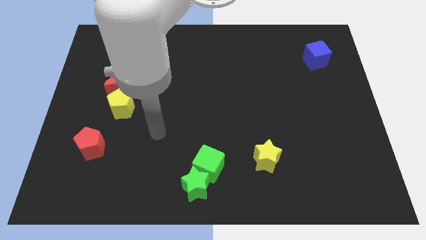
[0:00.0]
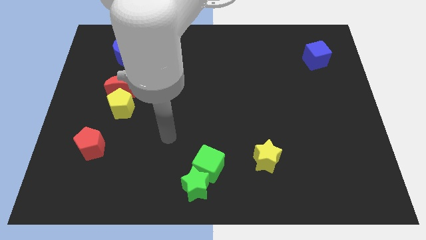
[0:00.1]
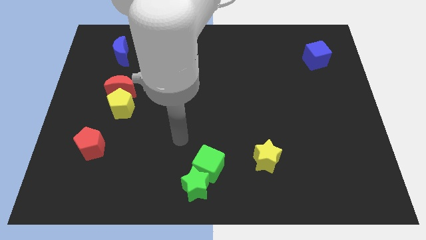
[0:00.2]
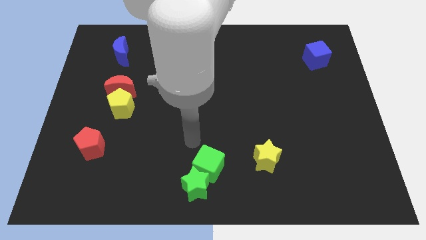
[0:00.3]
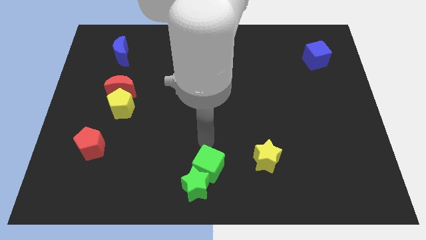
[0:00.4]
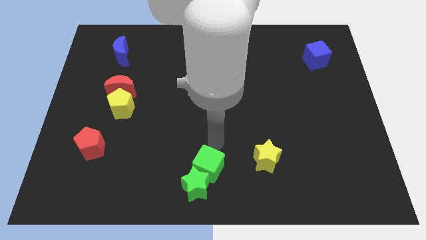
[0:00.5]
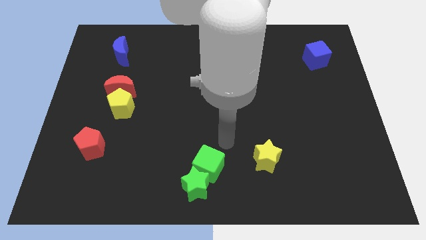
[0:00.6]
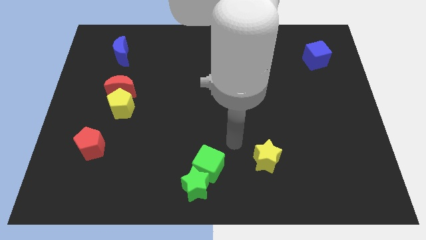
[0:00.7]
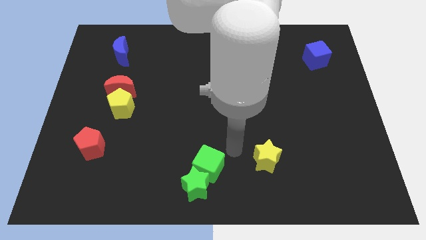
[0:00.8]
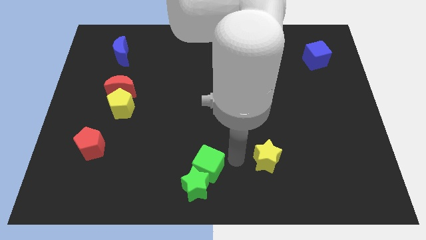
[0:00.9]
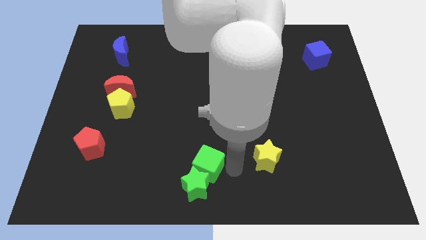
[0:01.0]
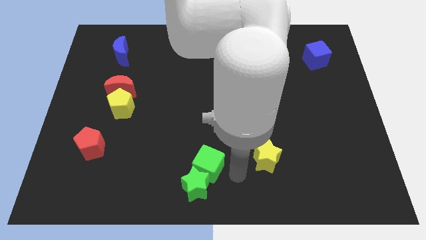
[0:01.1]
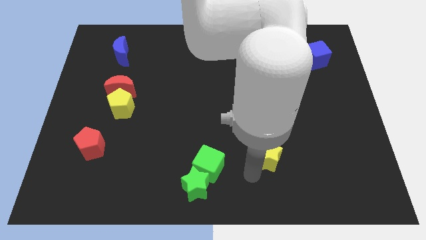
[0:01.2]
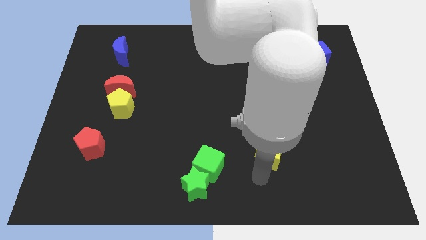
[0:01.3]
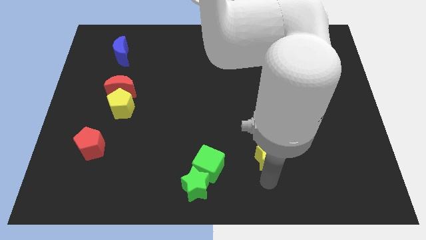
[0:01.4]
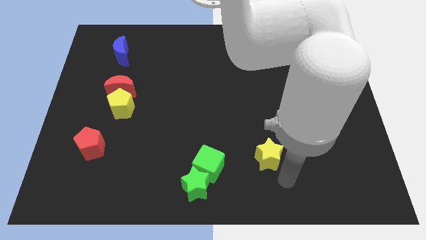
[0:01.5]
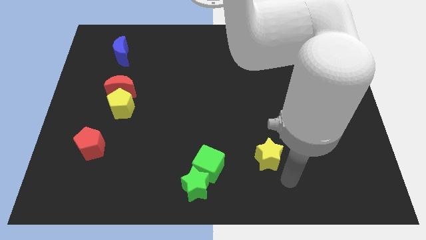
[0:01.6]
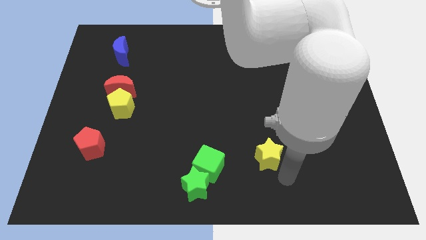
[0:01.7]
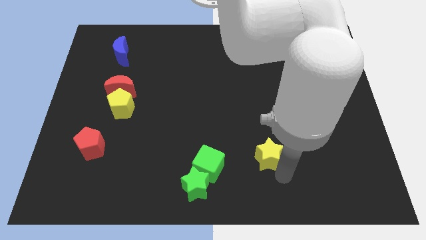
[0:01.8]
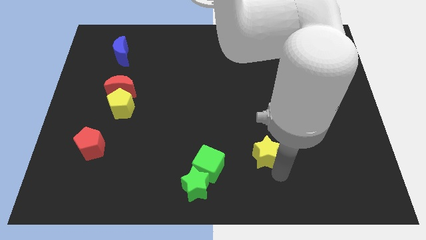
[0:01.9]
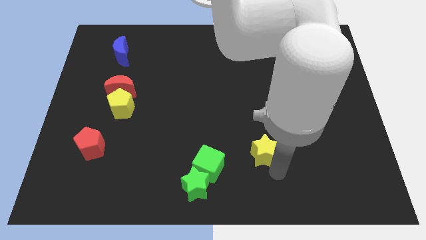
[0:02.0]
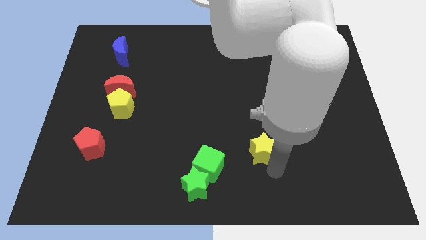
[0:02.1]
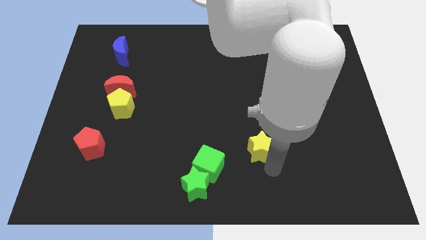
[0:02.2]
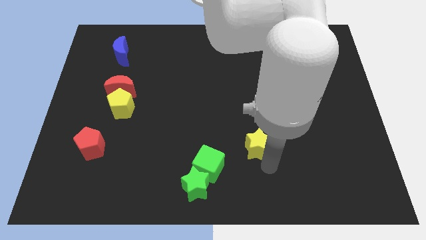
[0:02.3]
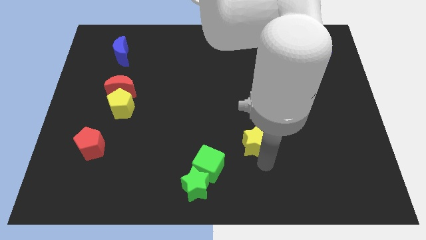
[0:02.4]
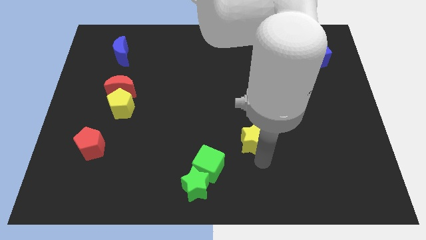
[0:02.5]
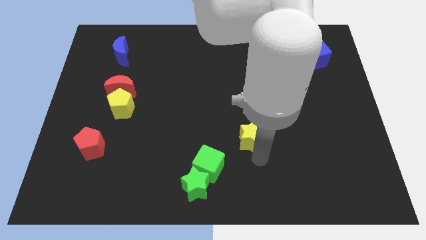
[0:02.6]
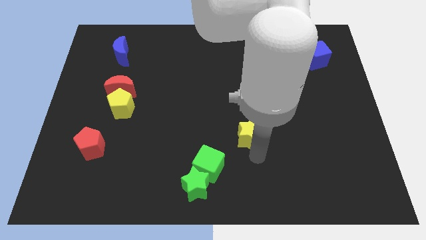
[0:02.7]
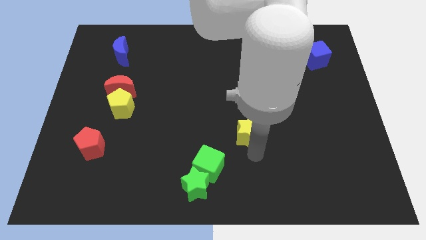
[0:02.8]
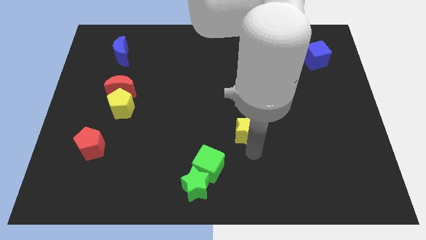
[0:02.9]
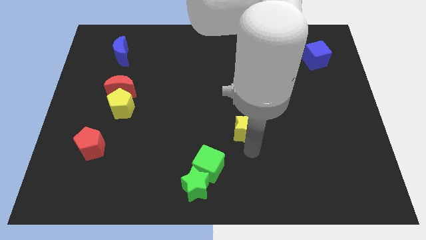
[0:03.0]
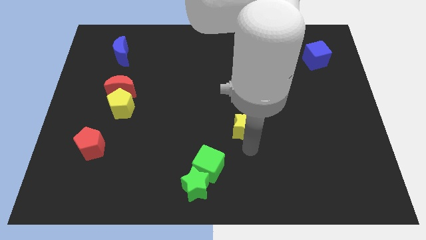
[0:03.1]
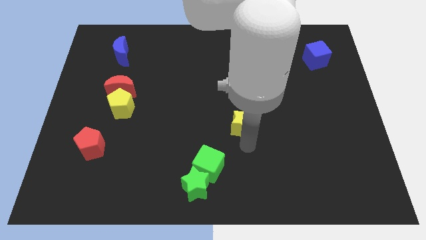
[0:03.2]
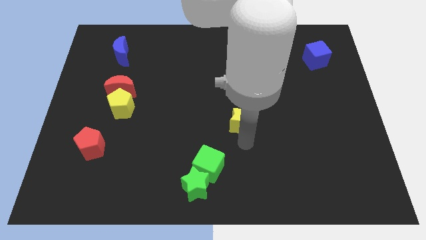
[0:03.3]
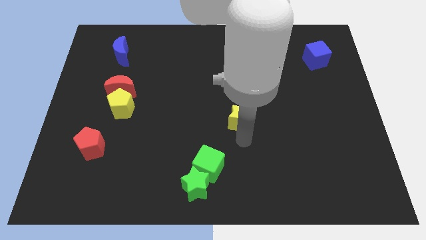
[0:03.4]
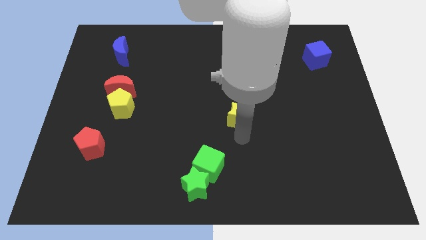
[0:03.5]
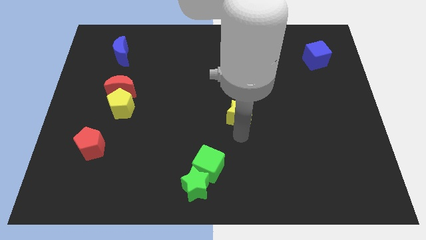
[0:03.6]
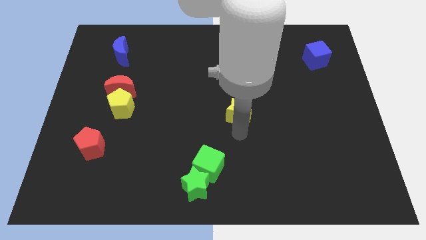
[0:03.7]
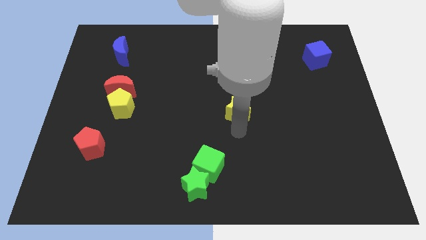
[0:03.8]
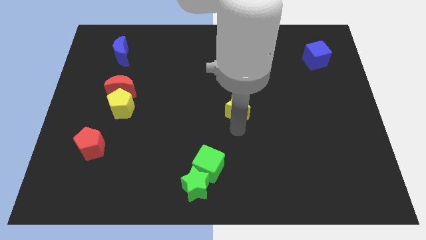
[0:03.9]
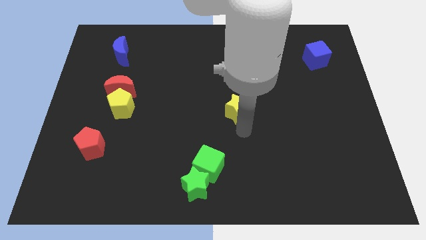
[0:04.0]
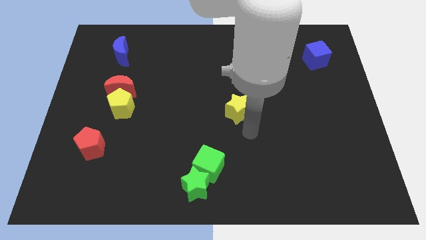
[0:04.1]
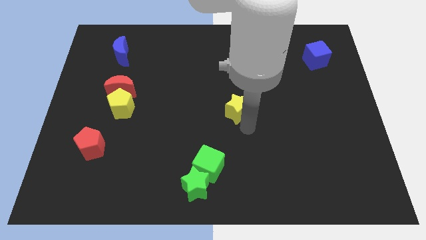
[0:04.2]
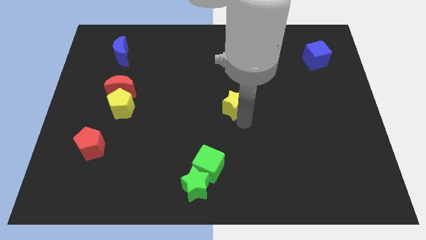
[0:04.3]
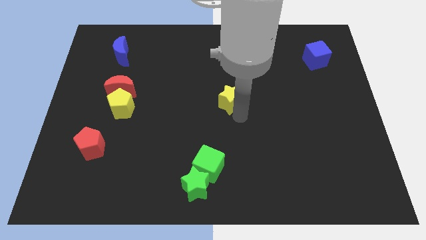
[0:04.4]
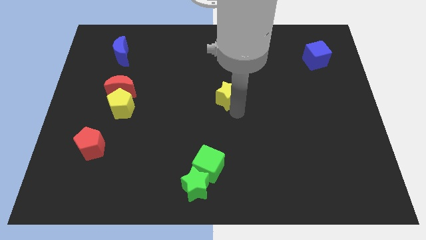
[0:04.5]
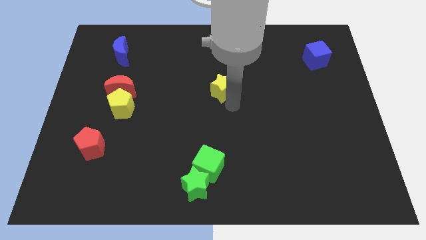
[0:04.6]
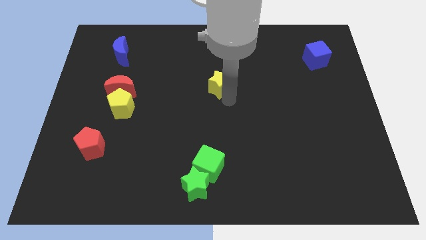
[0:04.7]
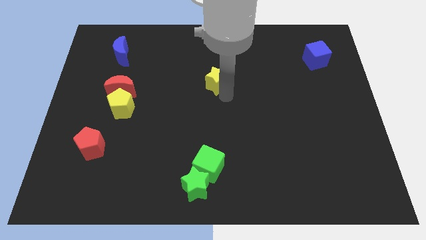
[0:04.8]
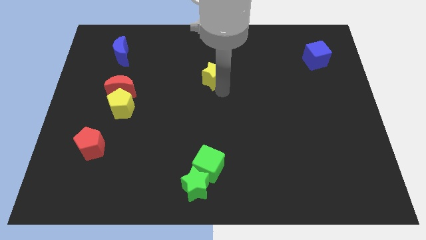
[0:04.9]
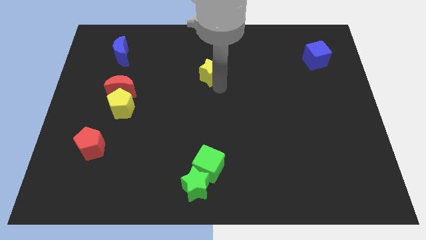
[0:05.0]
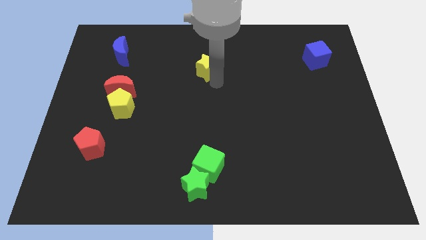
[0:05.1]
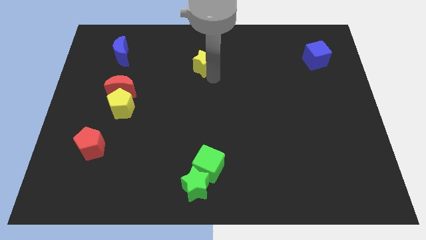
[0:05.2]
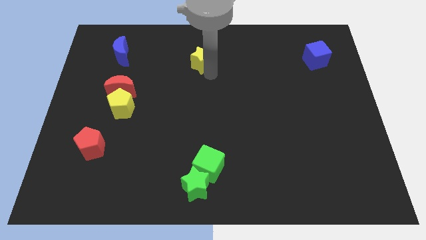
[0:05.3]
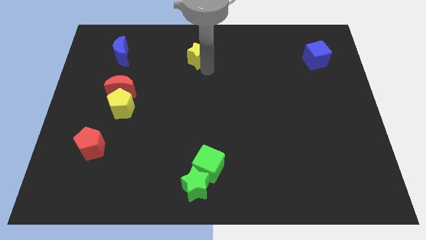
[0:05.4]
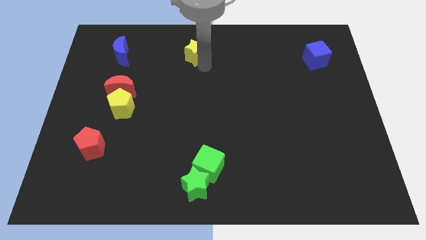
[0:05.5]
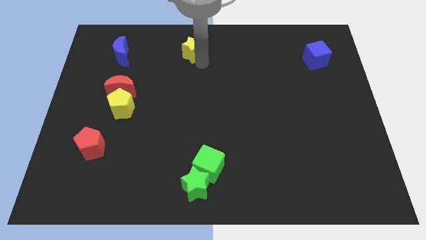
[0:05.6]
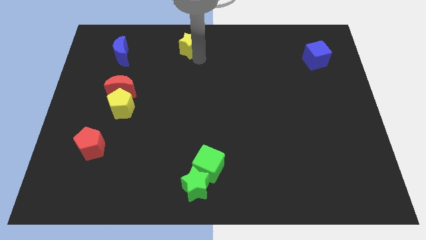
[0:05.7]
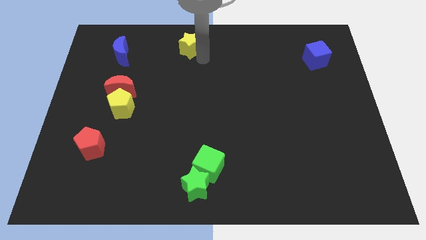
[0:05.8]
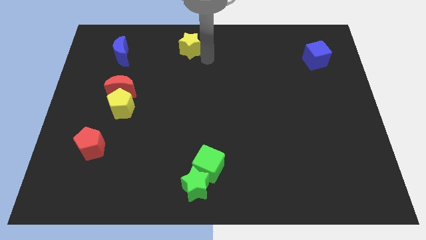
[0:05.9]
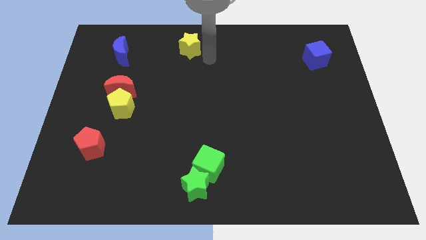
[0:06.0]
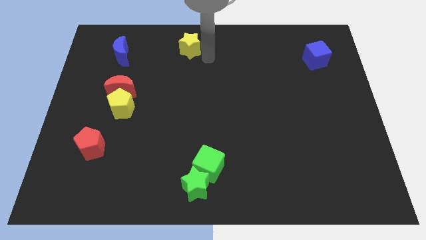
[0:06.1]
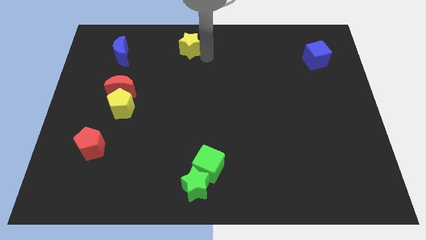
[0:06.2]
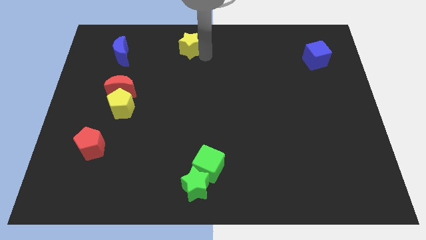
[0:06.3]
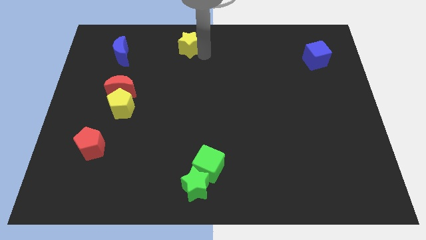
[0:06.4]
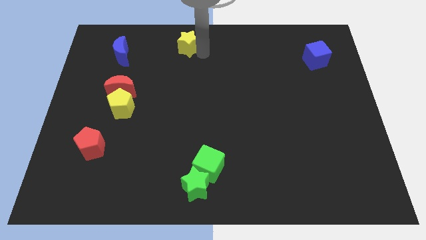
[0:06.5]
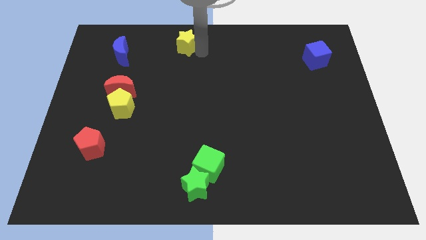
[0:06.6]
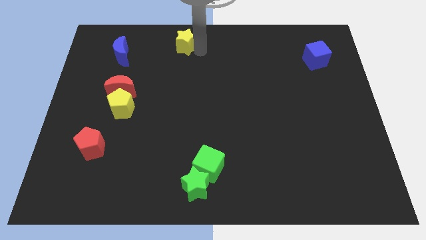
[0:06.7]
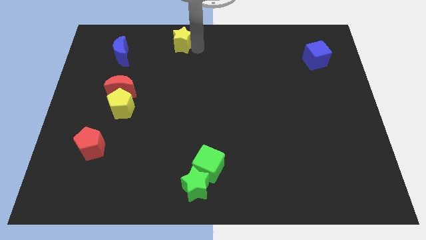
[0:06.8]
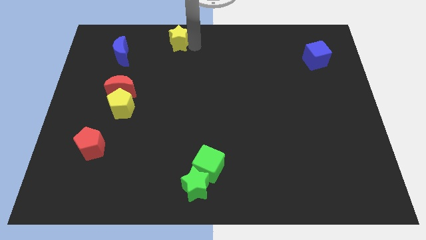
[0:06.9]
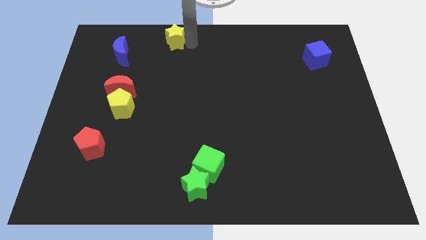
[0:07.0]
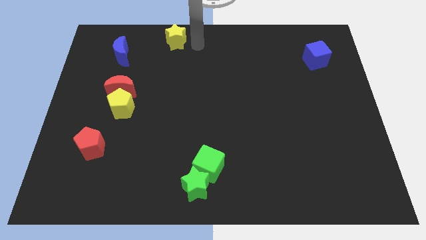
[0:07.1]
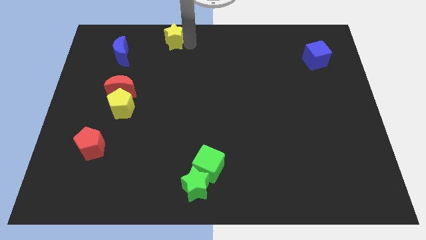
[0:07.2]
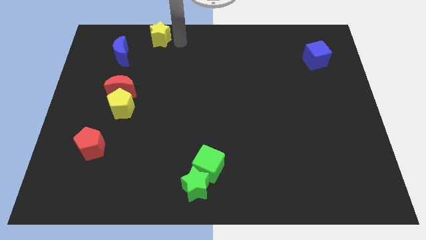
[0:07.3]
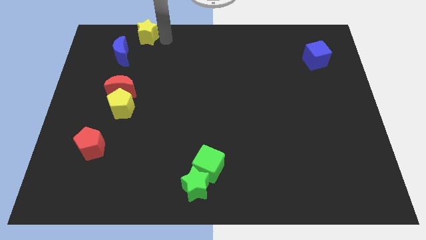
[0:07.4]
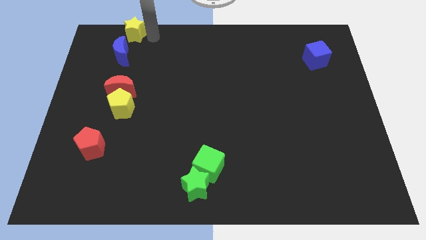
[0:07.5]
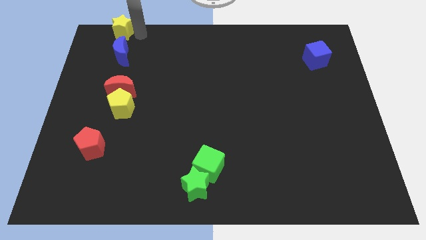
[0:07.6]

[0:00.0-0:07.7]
put the yellow star to the upper left corner
